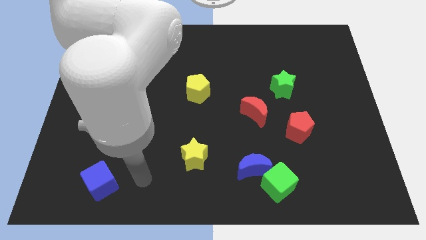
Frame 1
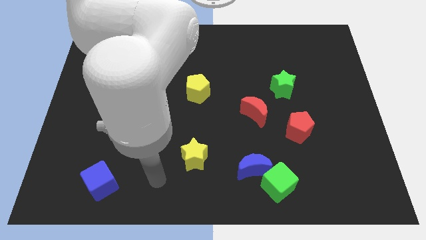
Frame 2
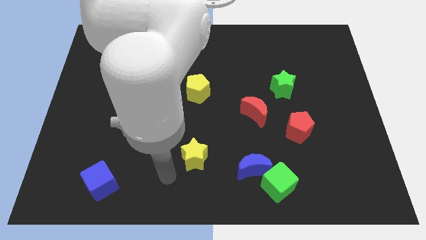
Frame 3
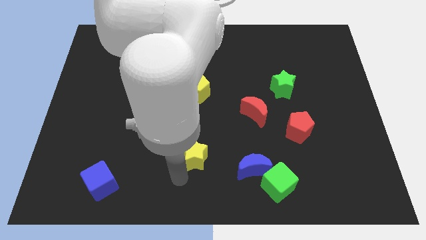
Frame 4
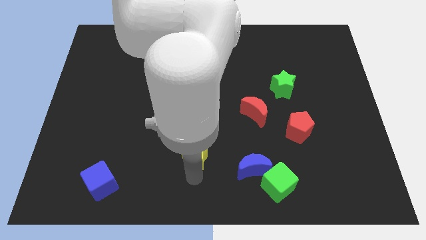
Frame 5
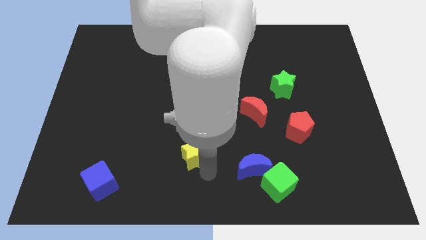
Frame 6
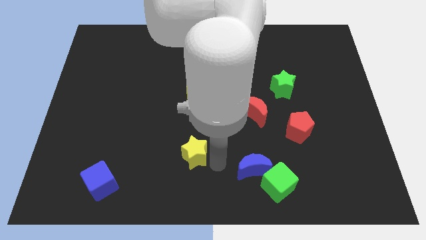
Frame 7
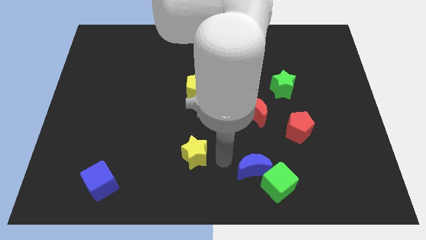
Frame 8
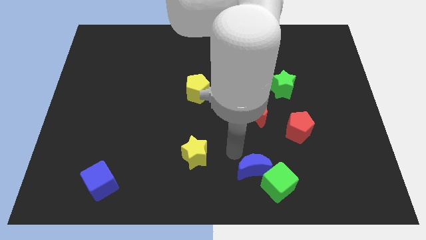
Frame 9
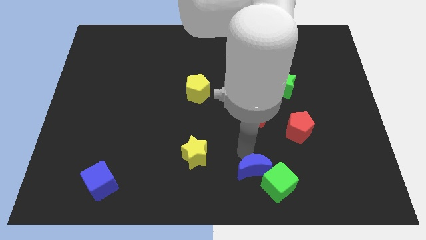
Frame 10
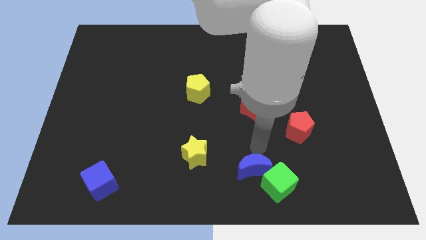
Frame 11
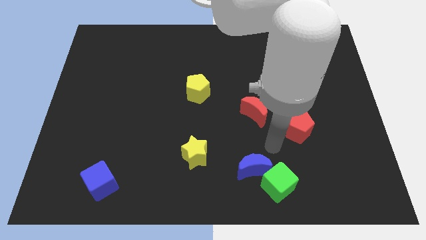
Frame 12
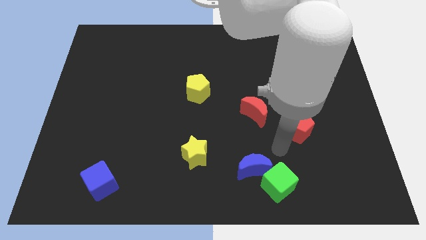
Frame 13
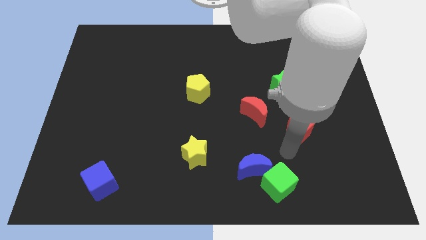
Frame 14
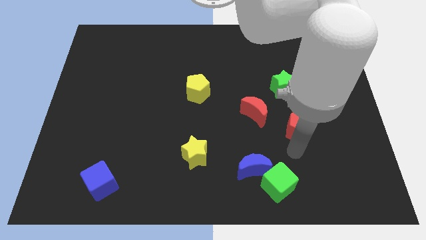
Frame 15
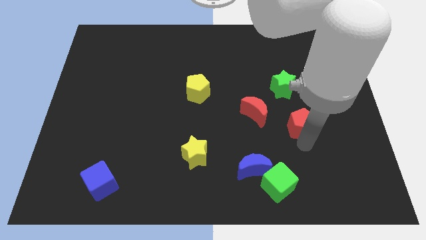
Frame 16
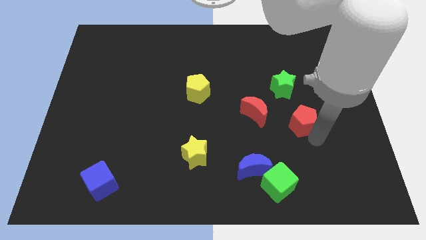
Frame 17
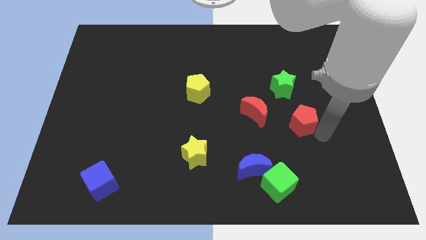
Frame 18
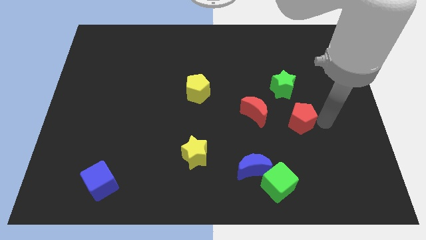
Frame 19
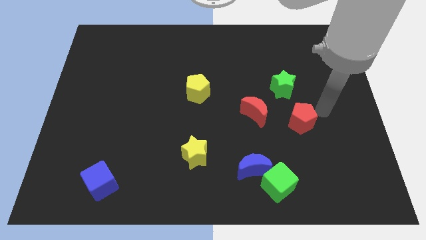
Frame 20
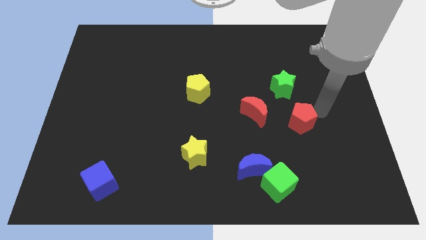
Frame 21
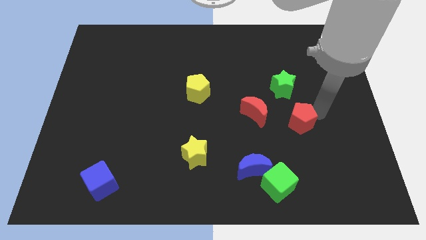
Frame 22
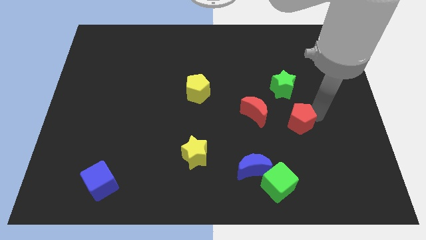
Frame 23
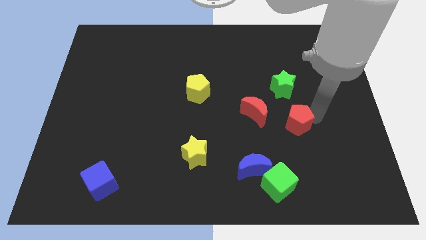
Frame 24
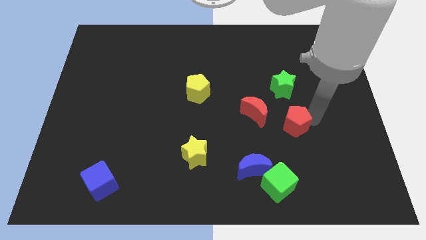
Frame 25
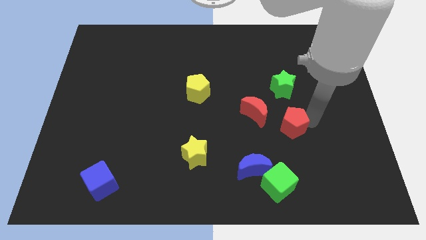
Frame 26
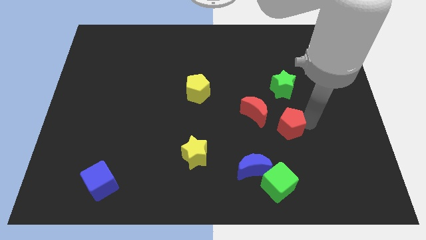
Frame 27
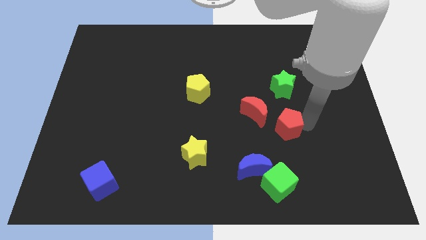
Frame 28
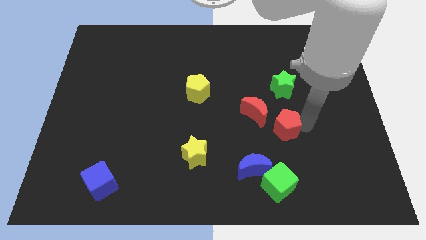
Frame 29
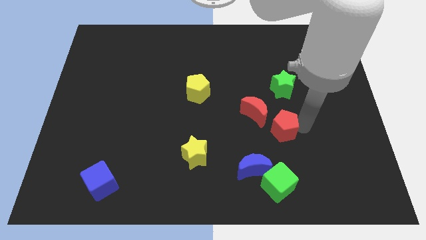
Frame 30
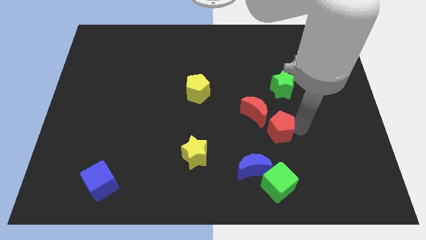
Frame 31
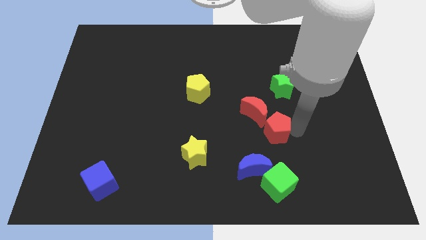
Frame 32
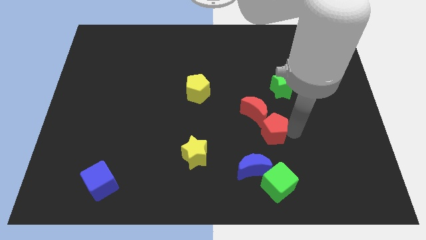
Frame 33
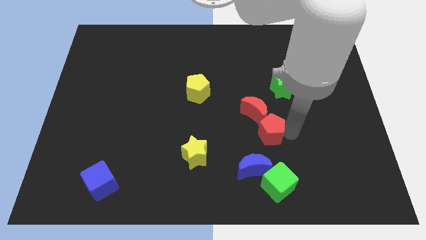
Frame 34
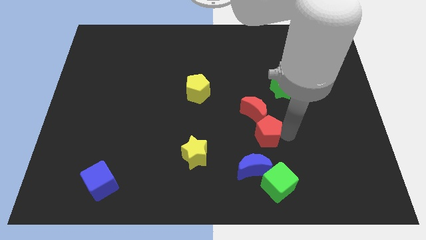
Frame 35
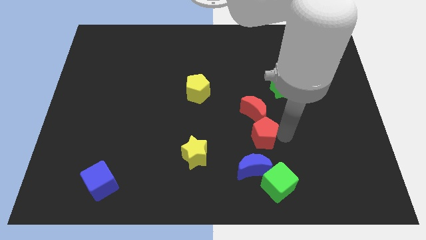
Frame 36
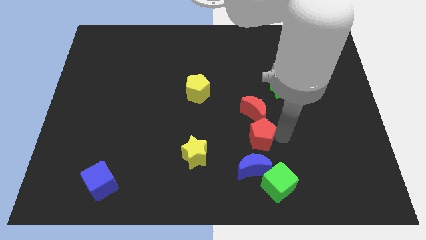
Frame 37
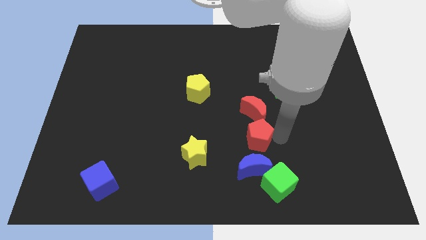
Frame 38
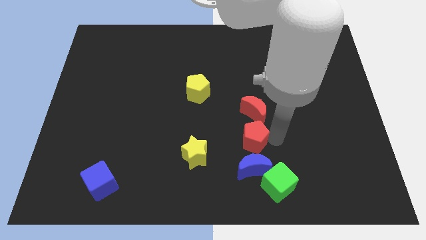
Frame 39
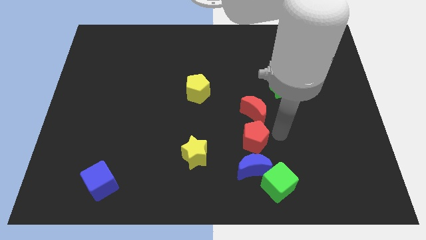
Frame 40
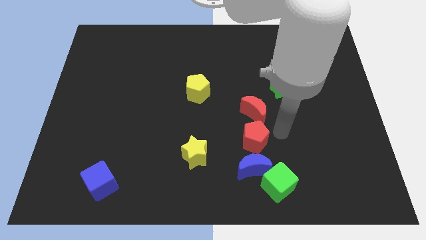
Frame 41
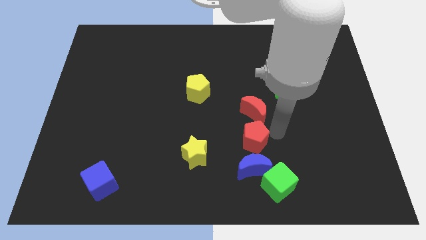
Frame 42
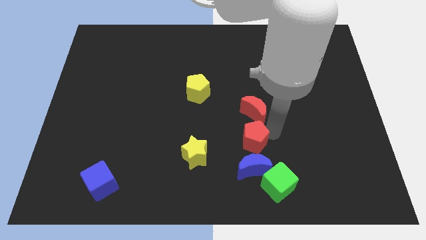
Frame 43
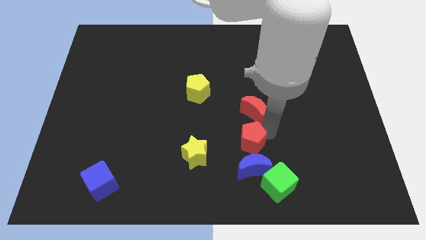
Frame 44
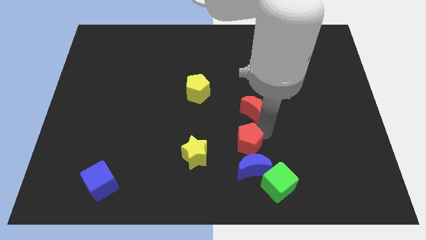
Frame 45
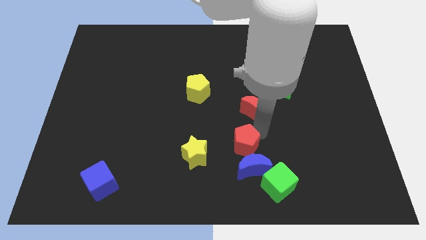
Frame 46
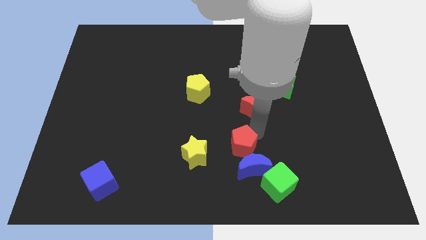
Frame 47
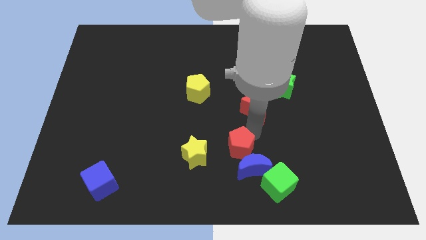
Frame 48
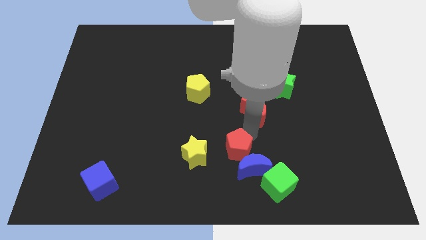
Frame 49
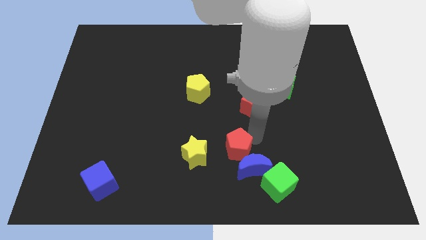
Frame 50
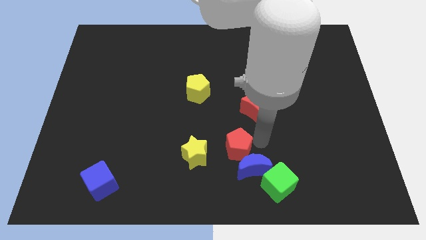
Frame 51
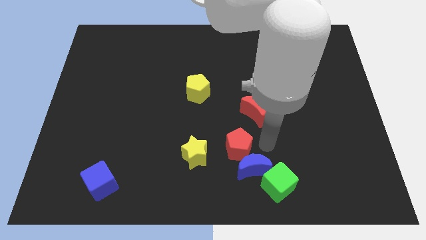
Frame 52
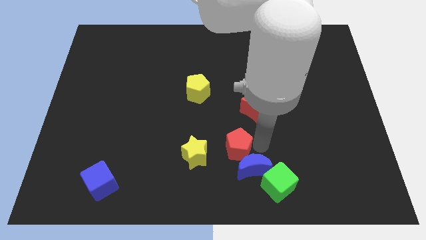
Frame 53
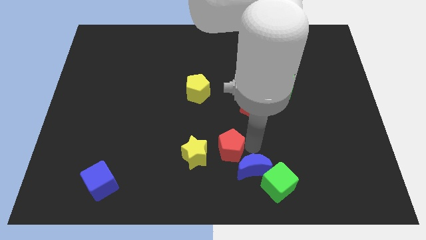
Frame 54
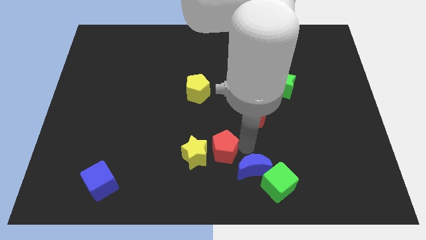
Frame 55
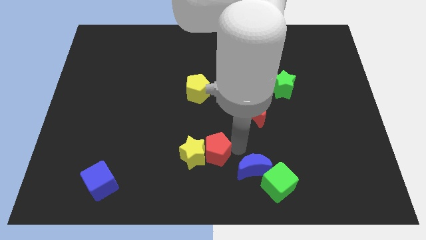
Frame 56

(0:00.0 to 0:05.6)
push the red pentagon towards the yellow star
